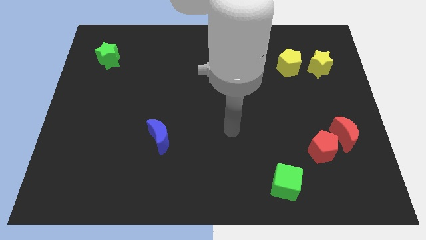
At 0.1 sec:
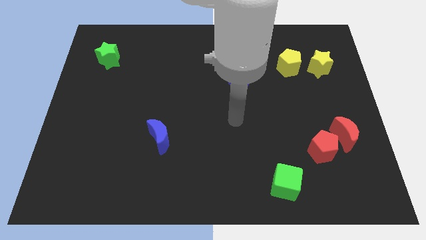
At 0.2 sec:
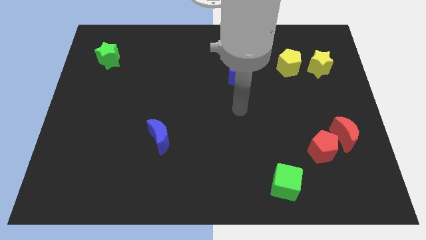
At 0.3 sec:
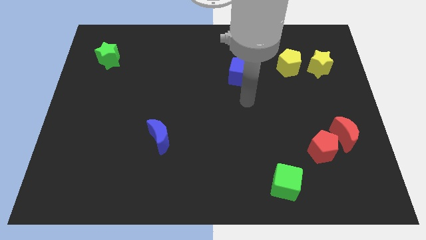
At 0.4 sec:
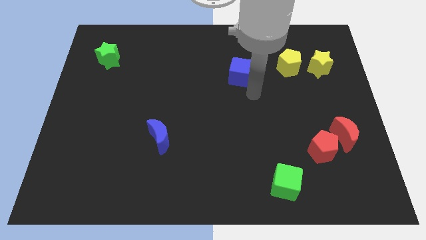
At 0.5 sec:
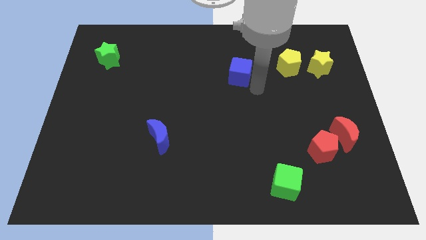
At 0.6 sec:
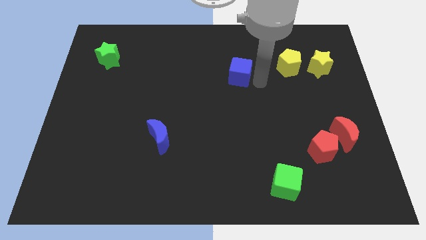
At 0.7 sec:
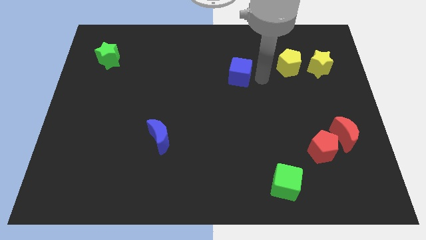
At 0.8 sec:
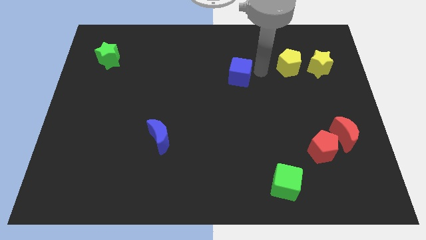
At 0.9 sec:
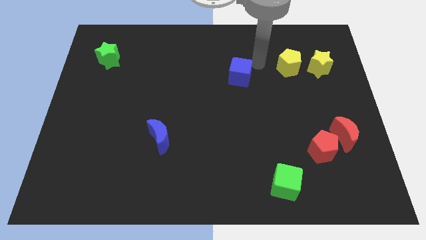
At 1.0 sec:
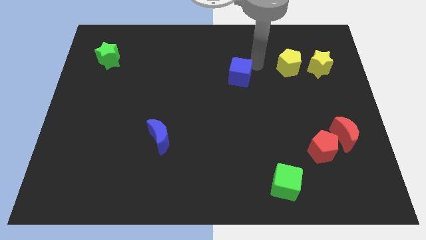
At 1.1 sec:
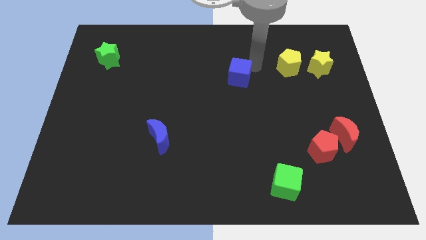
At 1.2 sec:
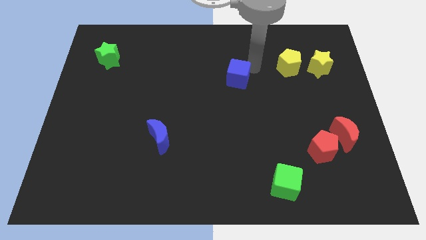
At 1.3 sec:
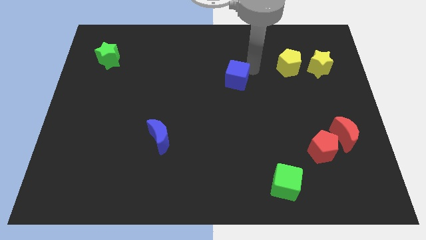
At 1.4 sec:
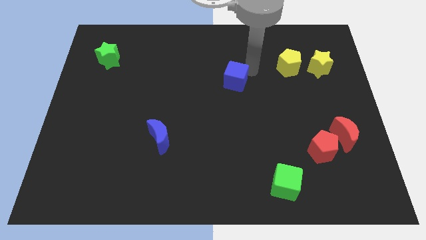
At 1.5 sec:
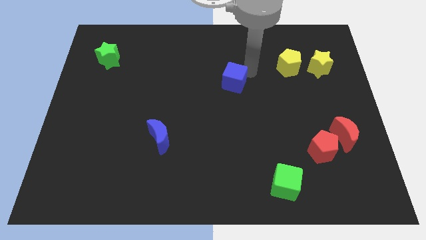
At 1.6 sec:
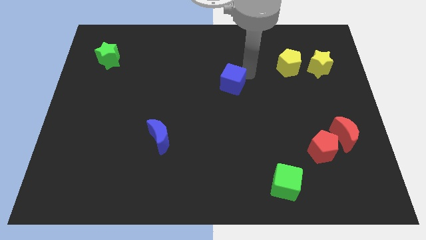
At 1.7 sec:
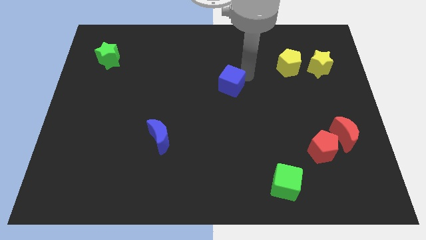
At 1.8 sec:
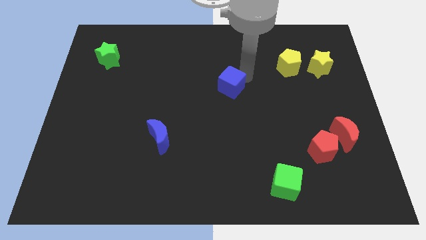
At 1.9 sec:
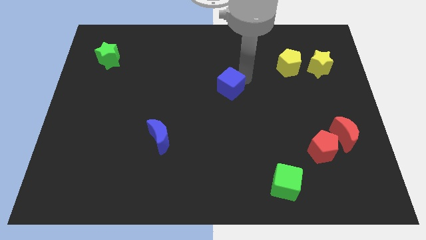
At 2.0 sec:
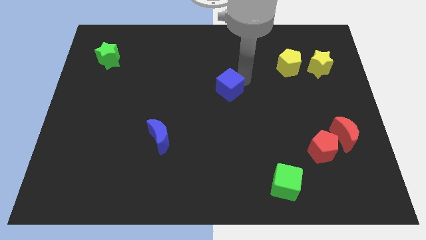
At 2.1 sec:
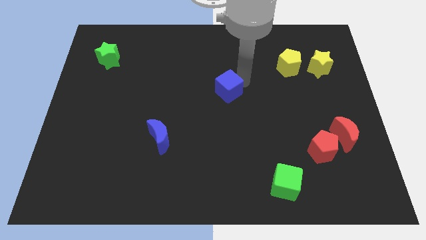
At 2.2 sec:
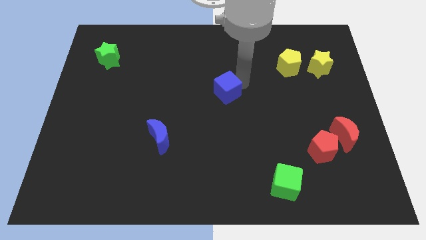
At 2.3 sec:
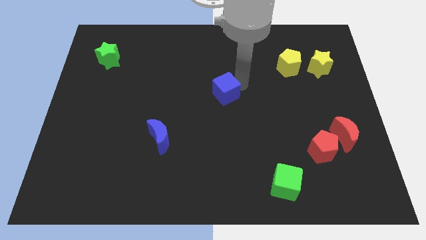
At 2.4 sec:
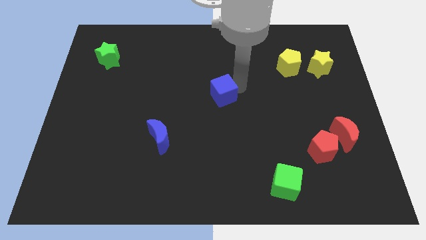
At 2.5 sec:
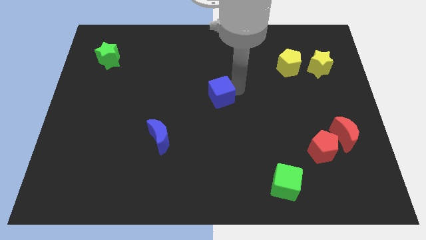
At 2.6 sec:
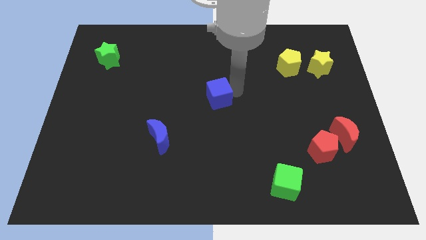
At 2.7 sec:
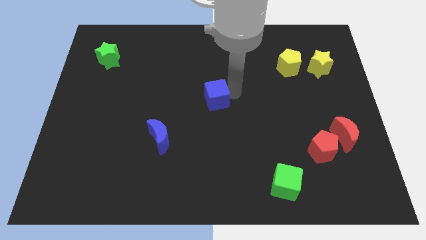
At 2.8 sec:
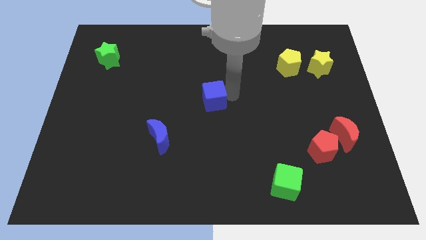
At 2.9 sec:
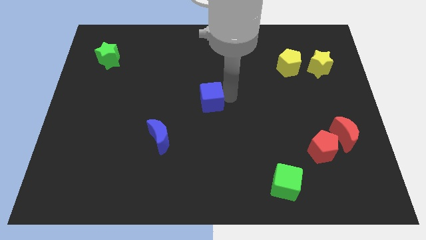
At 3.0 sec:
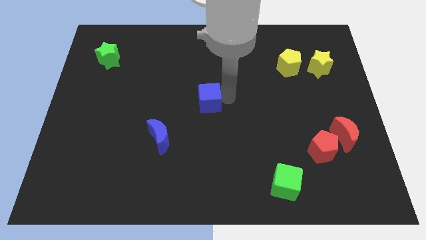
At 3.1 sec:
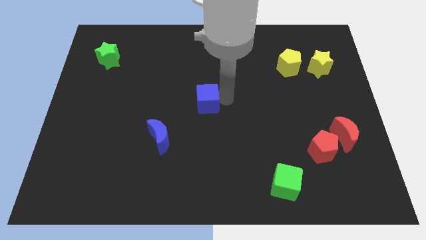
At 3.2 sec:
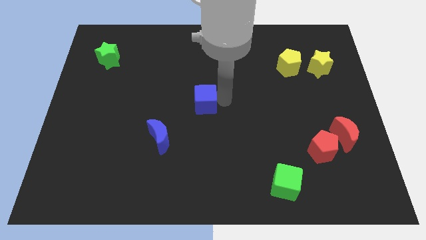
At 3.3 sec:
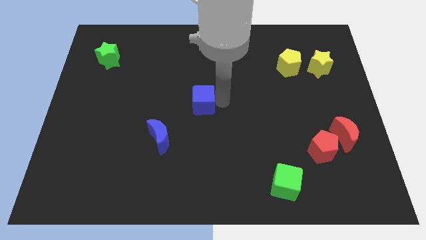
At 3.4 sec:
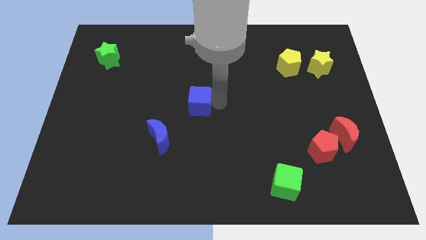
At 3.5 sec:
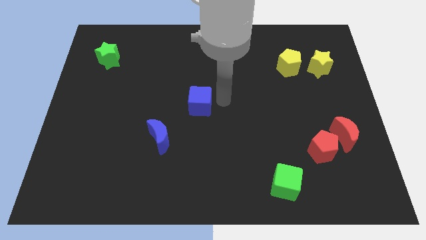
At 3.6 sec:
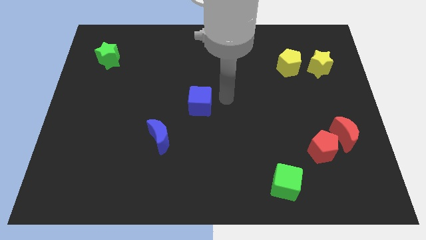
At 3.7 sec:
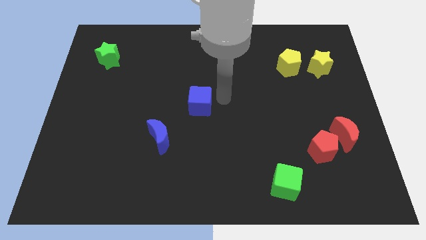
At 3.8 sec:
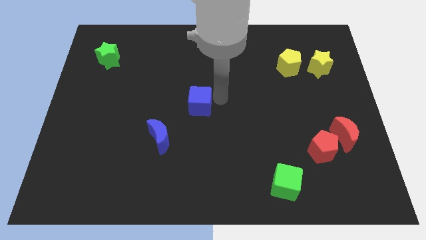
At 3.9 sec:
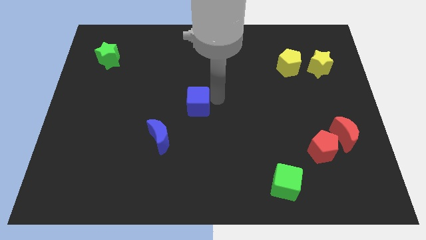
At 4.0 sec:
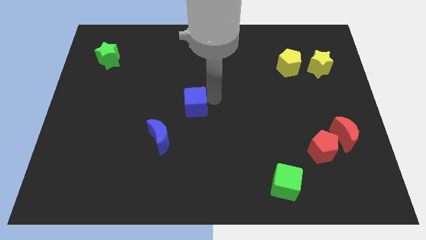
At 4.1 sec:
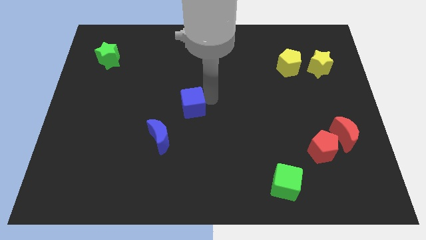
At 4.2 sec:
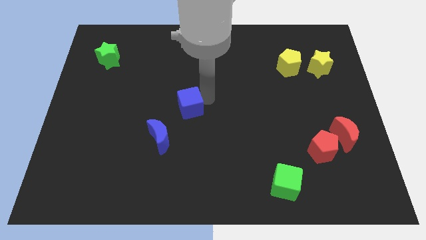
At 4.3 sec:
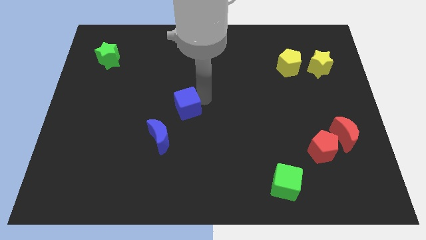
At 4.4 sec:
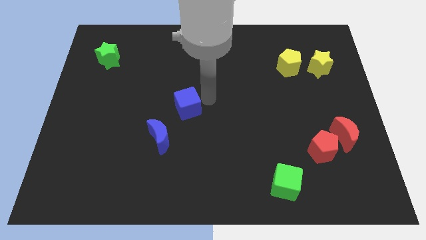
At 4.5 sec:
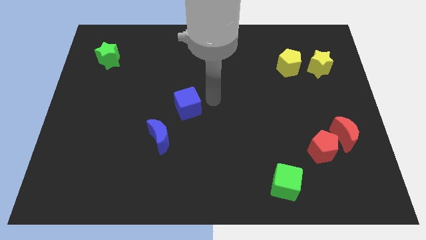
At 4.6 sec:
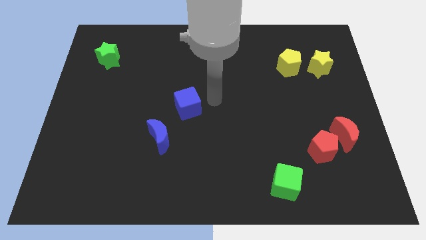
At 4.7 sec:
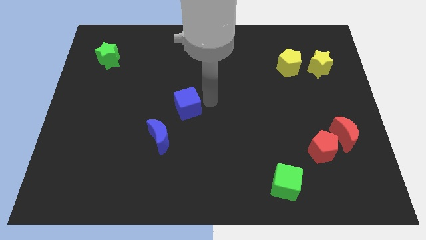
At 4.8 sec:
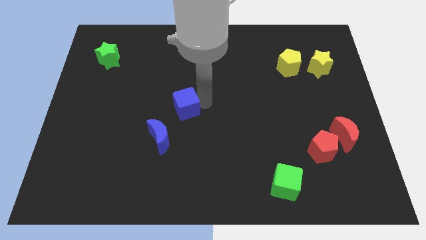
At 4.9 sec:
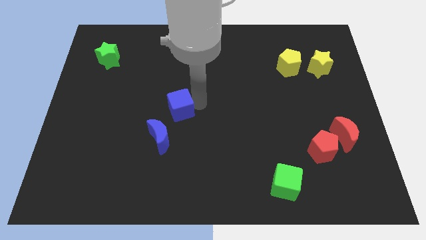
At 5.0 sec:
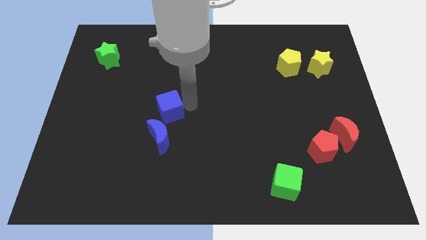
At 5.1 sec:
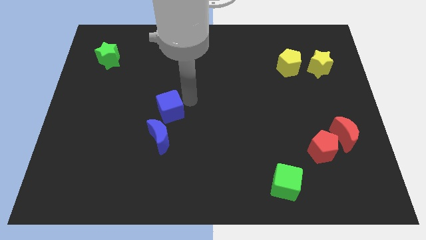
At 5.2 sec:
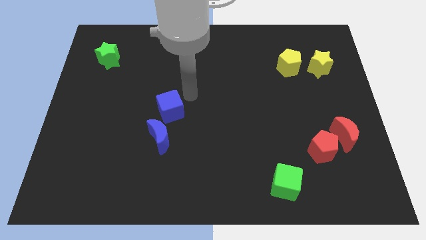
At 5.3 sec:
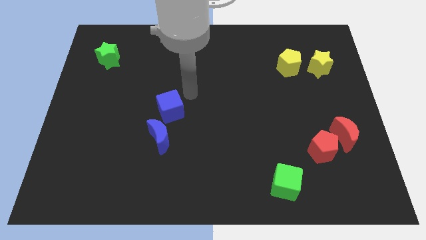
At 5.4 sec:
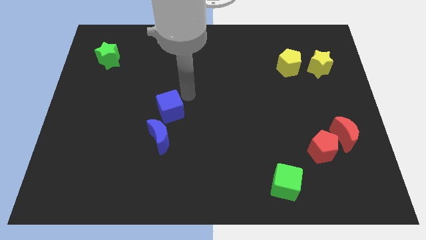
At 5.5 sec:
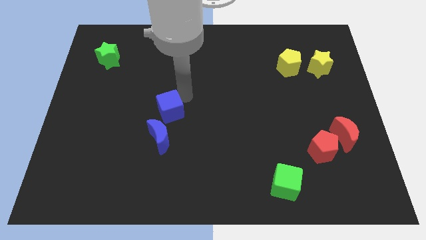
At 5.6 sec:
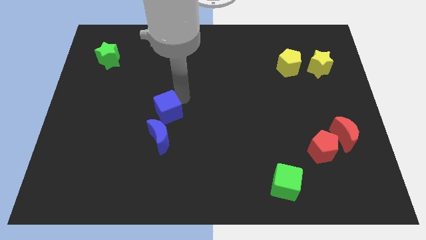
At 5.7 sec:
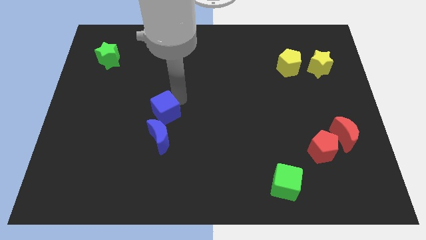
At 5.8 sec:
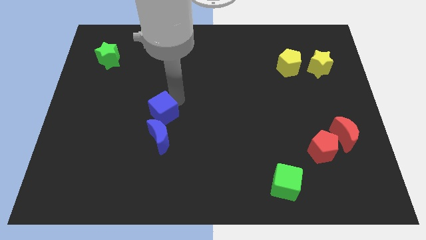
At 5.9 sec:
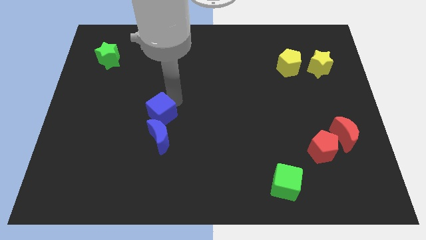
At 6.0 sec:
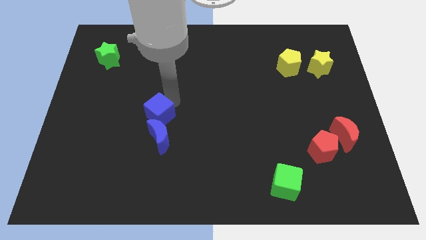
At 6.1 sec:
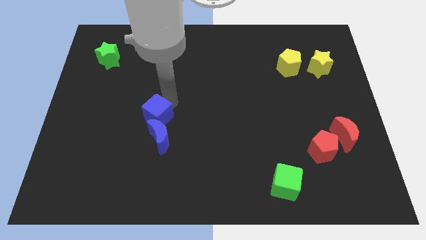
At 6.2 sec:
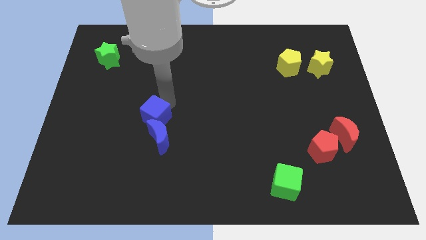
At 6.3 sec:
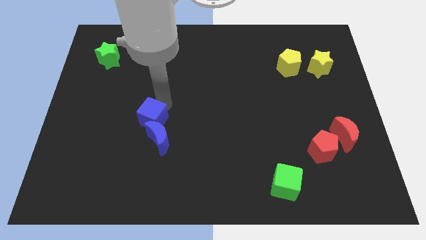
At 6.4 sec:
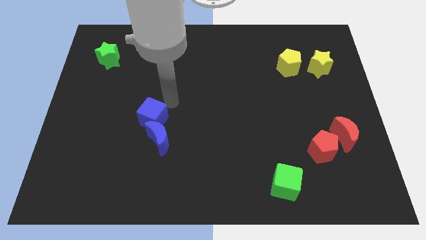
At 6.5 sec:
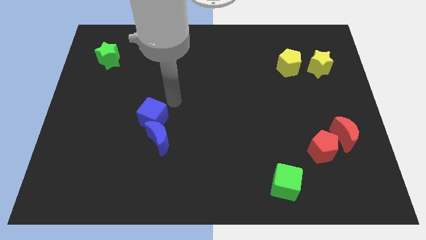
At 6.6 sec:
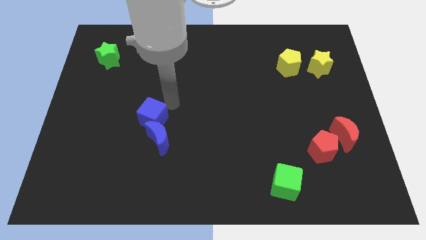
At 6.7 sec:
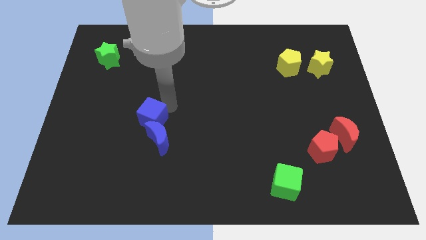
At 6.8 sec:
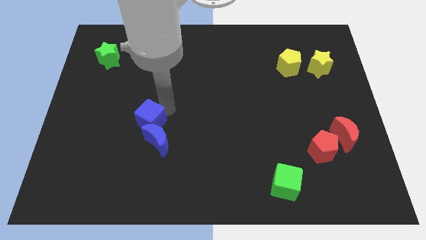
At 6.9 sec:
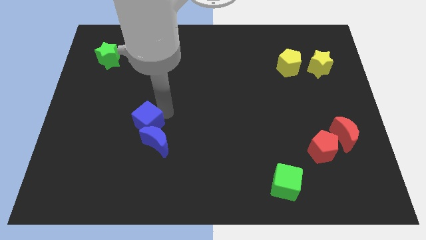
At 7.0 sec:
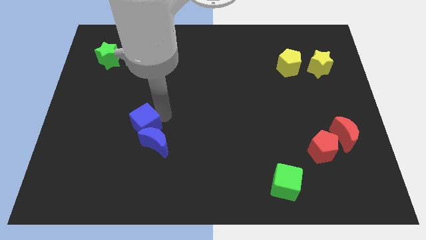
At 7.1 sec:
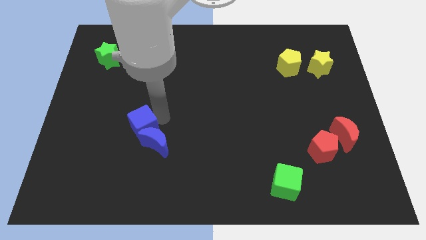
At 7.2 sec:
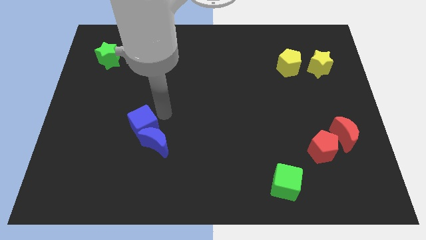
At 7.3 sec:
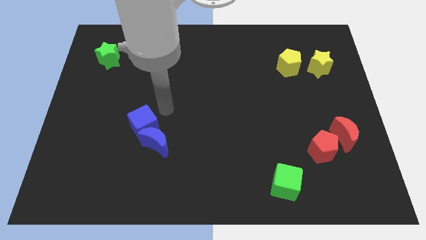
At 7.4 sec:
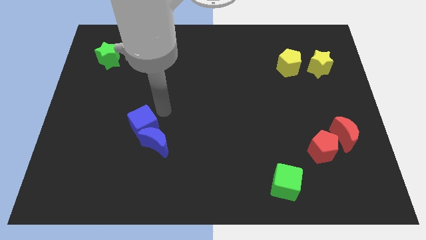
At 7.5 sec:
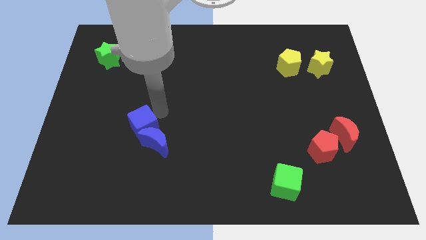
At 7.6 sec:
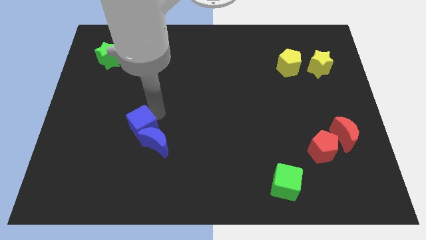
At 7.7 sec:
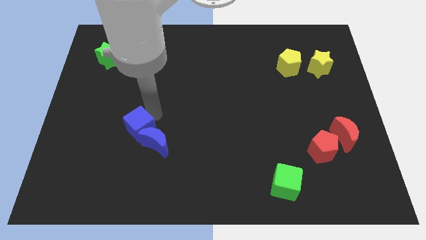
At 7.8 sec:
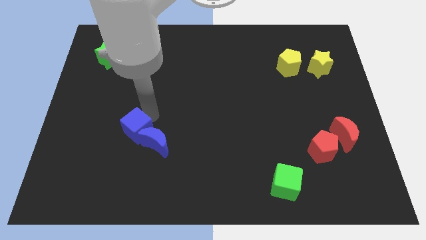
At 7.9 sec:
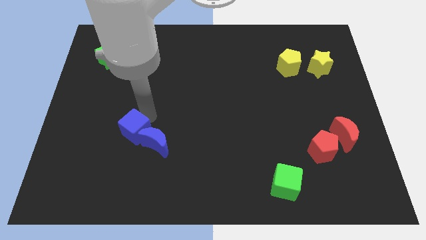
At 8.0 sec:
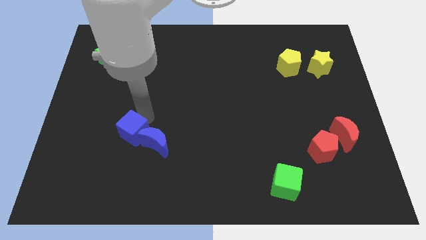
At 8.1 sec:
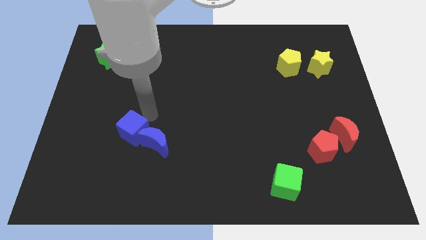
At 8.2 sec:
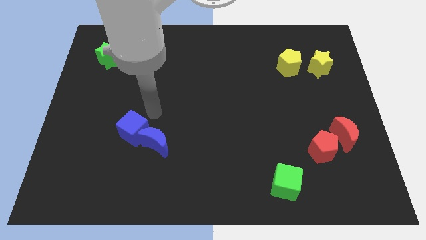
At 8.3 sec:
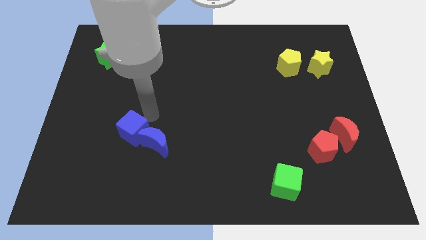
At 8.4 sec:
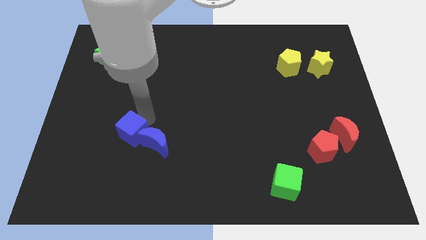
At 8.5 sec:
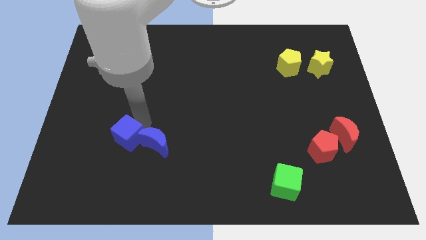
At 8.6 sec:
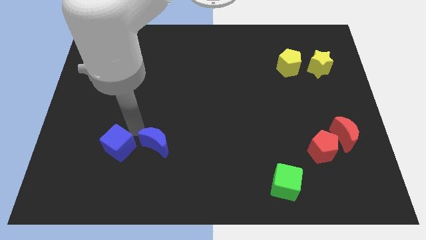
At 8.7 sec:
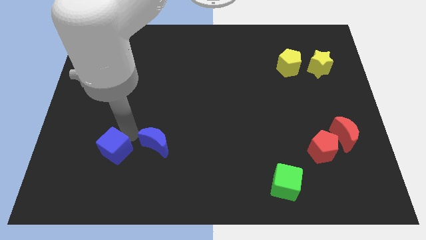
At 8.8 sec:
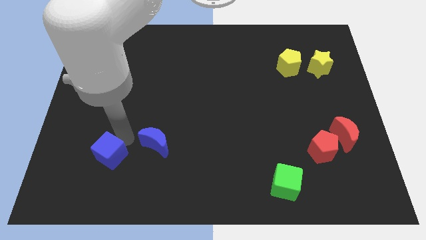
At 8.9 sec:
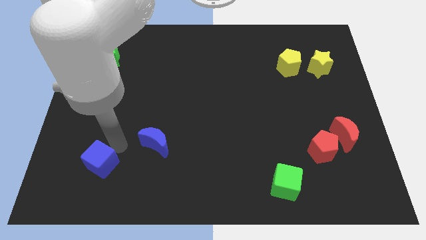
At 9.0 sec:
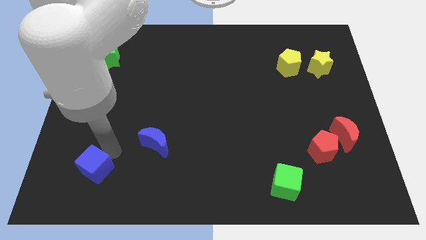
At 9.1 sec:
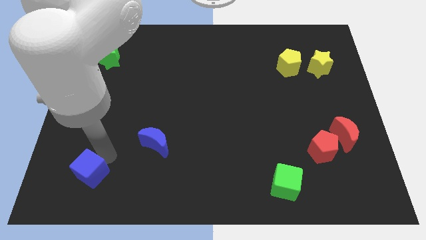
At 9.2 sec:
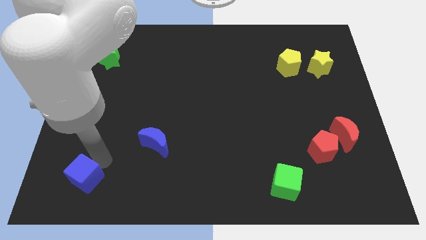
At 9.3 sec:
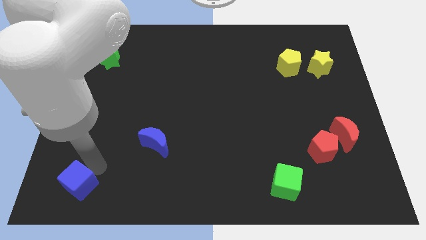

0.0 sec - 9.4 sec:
move the blue cube to the bottom left corner
